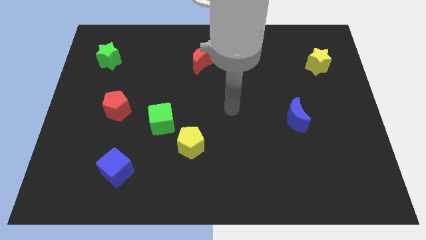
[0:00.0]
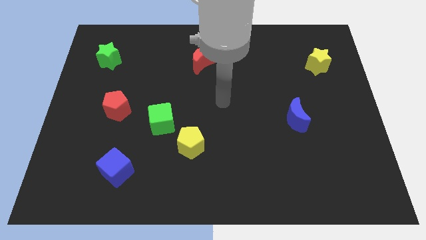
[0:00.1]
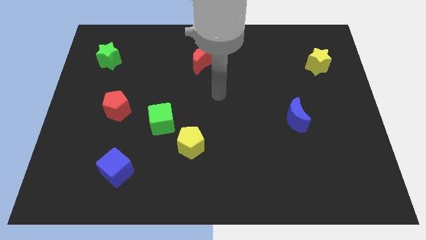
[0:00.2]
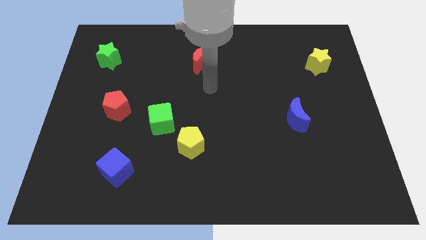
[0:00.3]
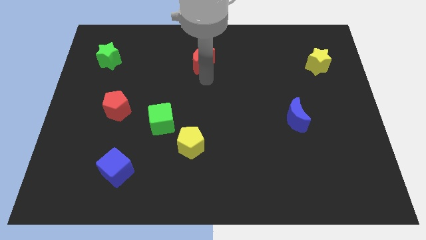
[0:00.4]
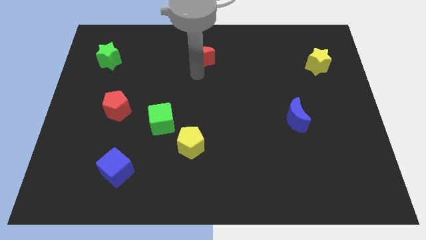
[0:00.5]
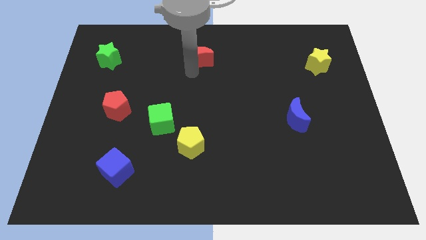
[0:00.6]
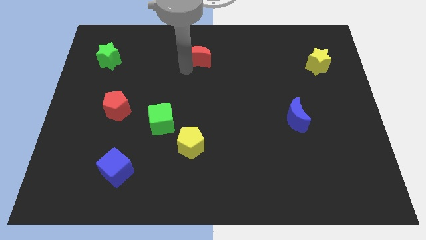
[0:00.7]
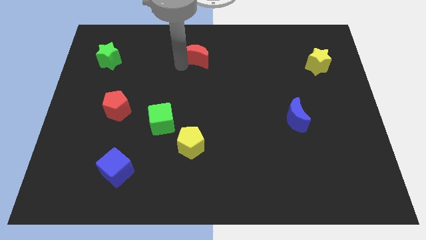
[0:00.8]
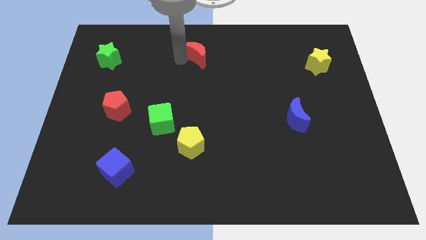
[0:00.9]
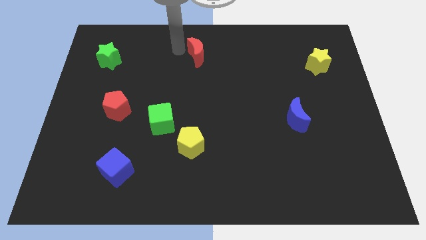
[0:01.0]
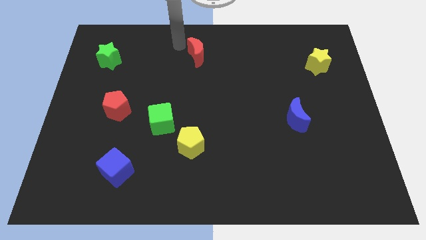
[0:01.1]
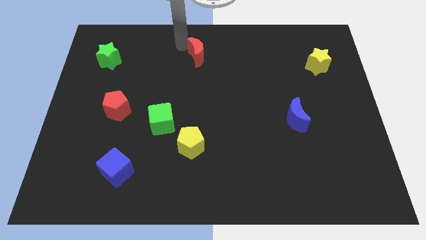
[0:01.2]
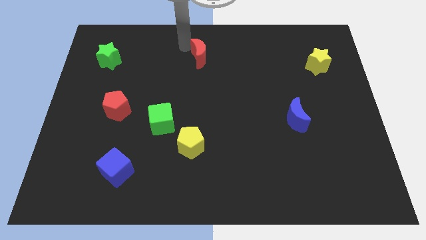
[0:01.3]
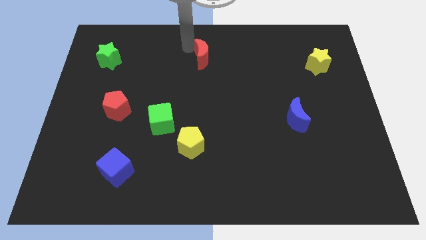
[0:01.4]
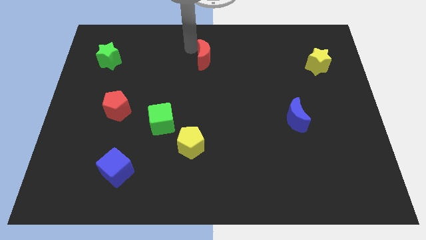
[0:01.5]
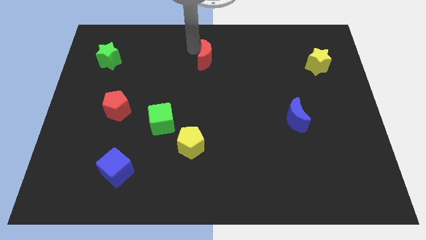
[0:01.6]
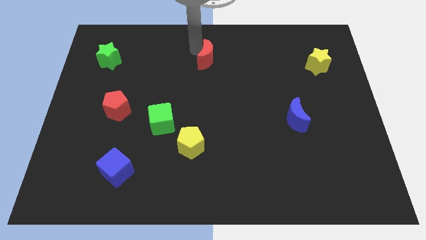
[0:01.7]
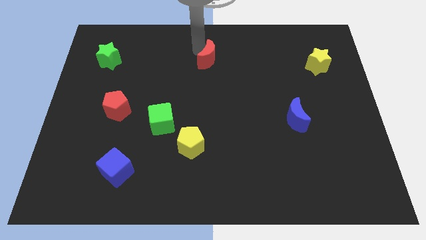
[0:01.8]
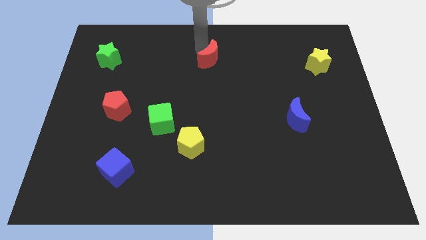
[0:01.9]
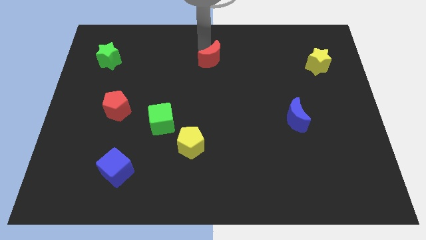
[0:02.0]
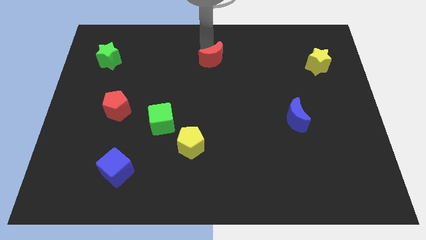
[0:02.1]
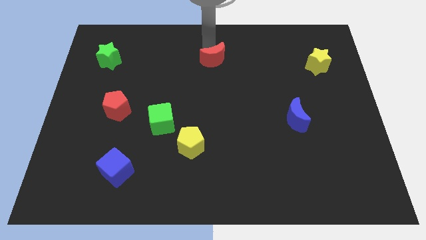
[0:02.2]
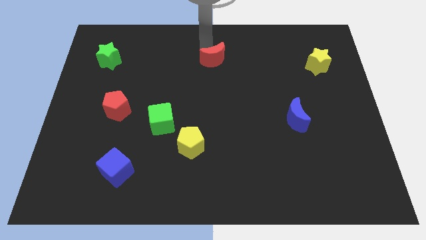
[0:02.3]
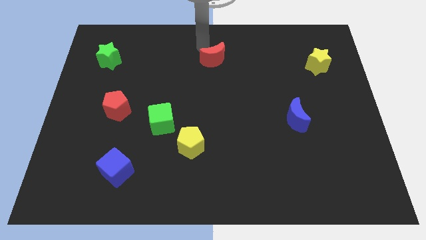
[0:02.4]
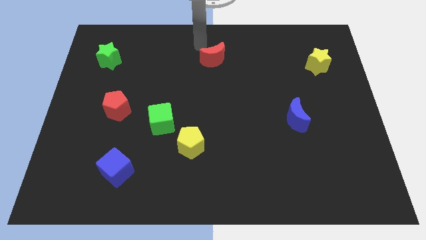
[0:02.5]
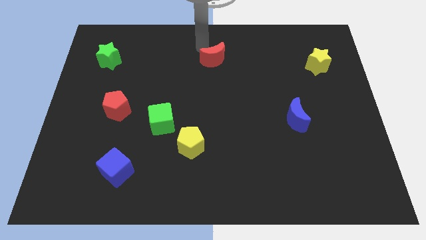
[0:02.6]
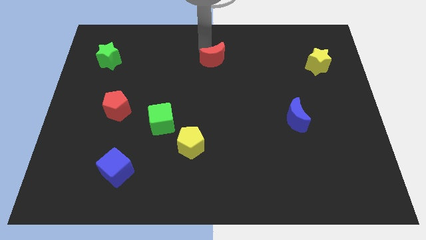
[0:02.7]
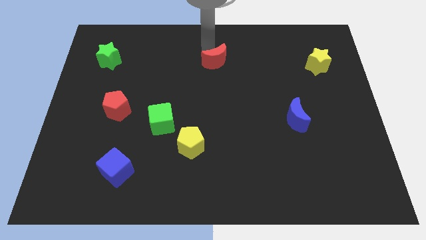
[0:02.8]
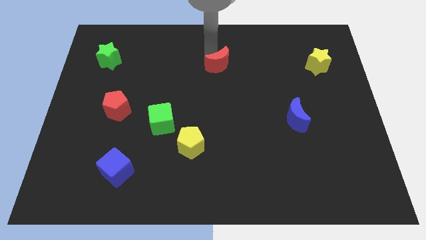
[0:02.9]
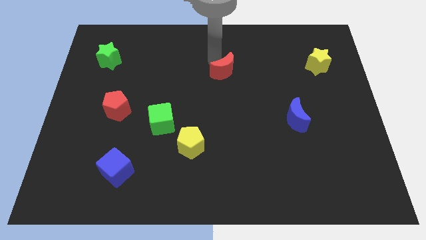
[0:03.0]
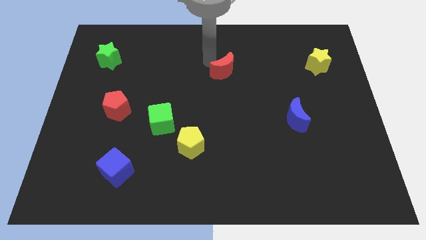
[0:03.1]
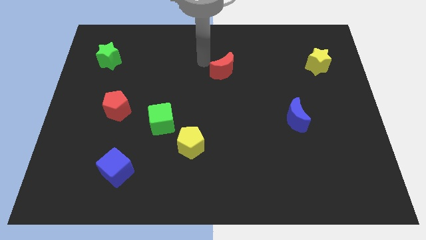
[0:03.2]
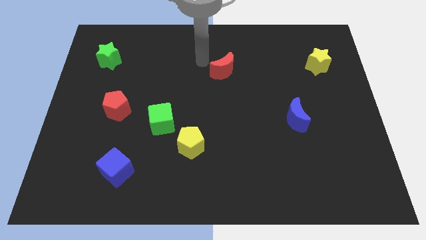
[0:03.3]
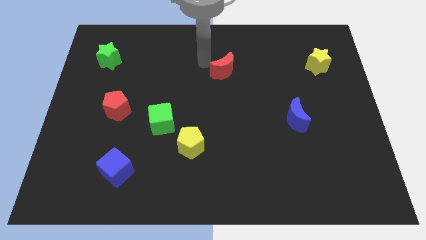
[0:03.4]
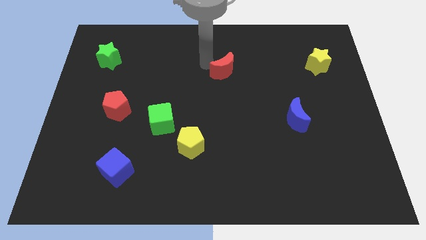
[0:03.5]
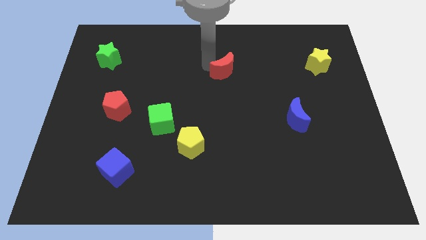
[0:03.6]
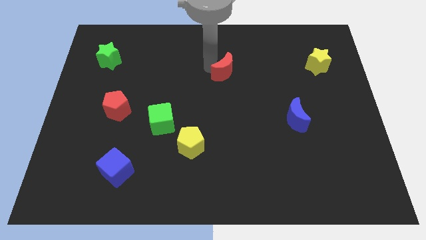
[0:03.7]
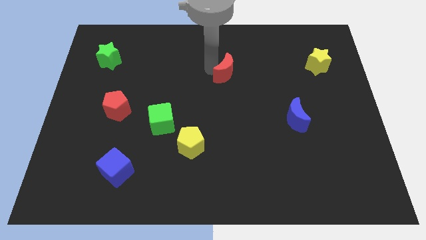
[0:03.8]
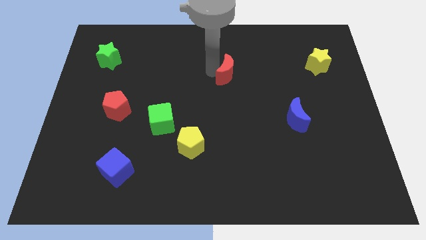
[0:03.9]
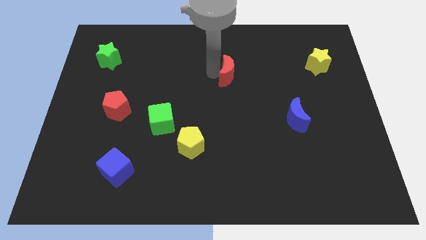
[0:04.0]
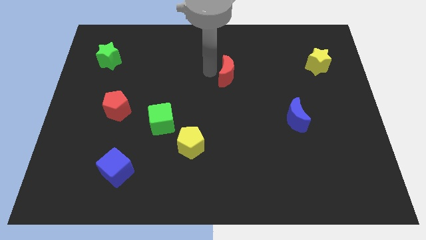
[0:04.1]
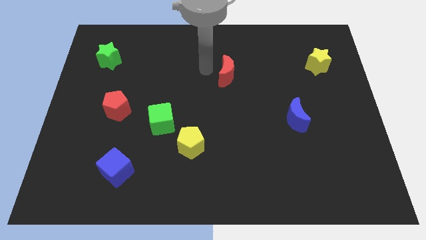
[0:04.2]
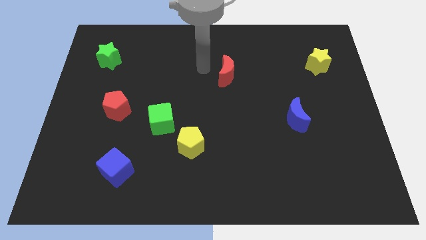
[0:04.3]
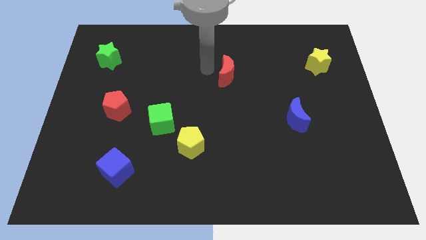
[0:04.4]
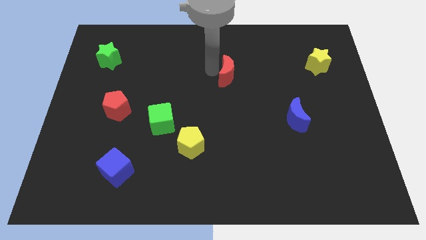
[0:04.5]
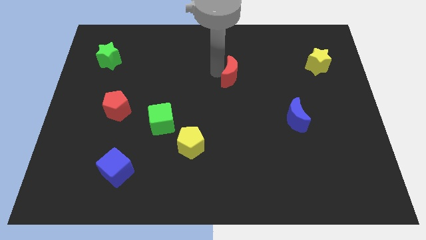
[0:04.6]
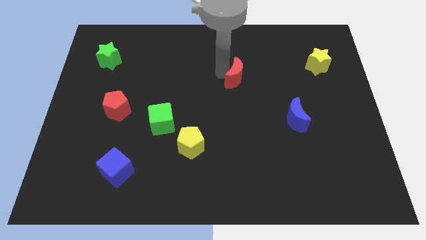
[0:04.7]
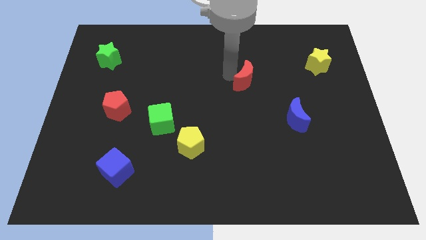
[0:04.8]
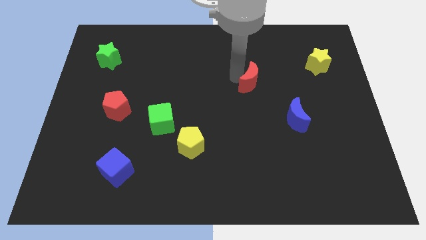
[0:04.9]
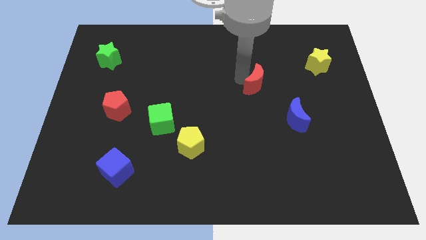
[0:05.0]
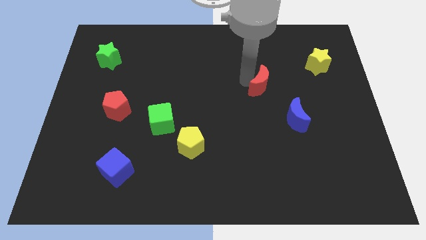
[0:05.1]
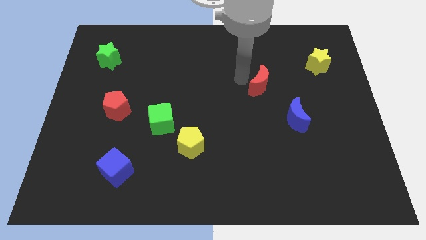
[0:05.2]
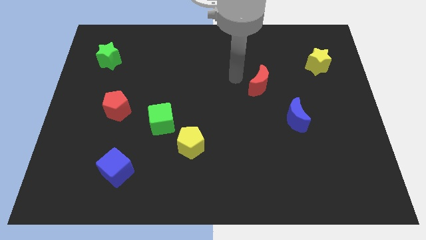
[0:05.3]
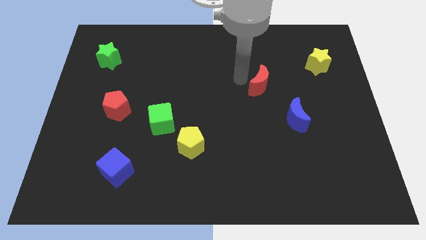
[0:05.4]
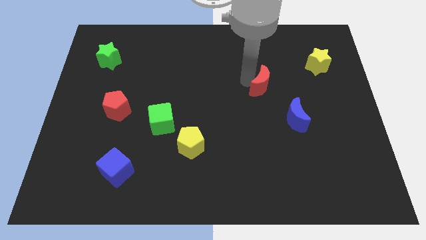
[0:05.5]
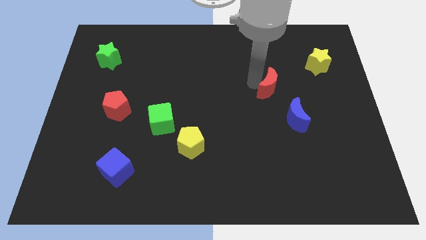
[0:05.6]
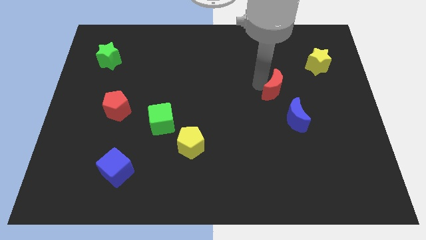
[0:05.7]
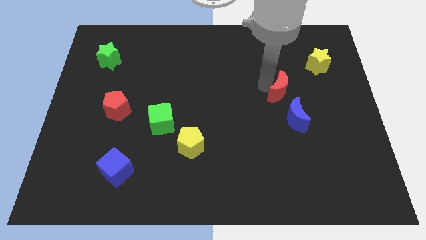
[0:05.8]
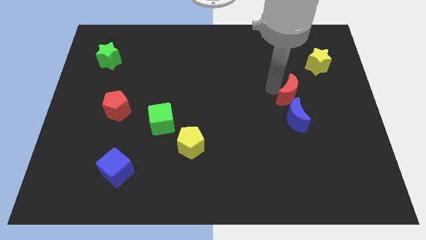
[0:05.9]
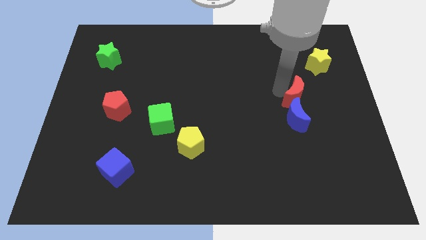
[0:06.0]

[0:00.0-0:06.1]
slide the red moon to the top right of the blue moon
